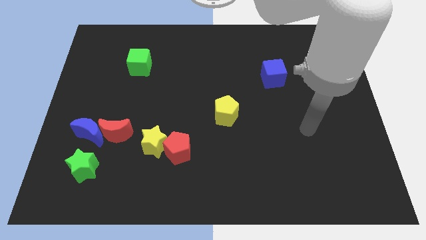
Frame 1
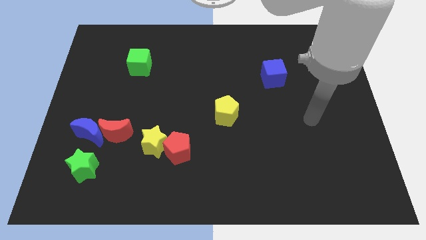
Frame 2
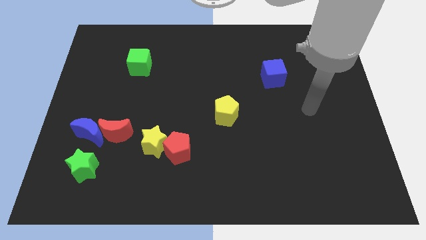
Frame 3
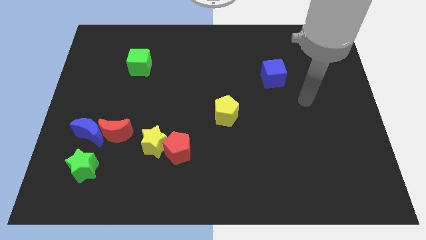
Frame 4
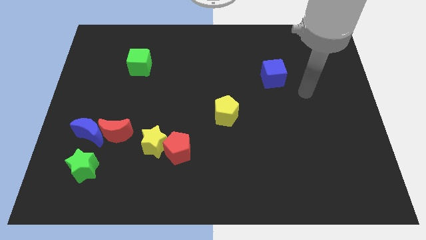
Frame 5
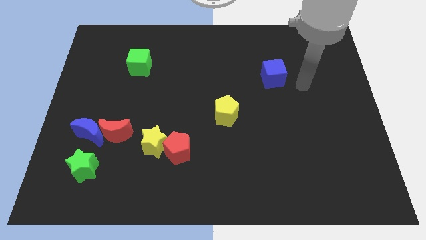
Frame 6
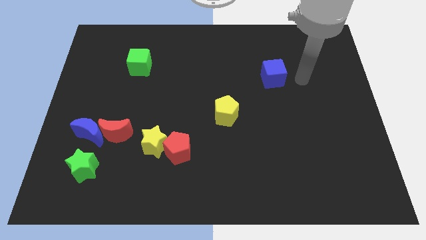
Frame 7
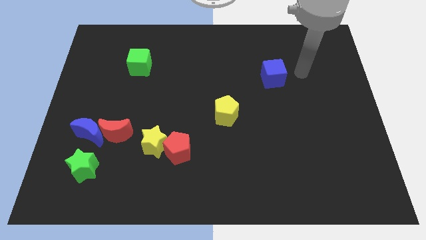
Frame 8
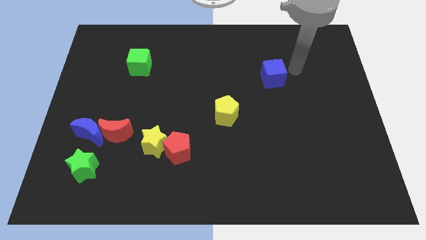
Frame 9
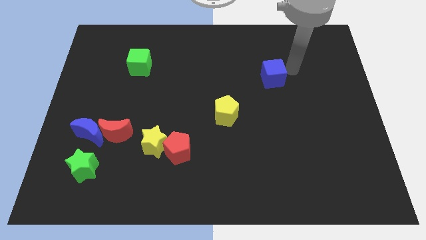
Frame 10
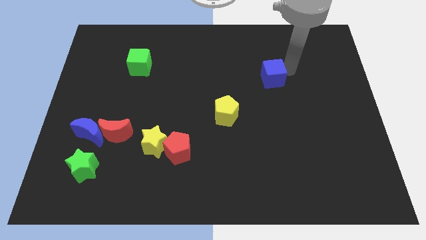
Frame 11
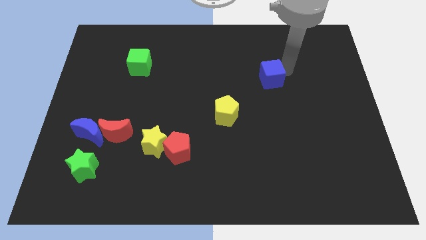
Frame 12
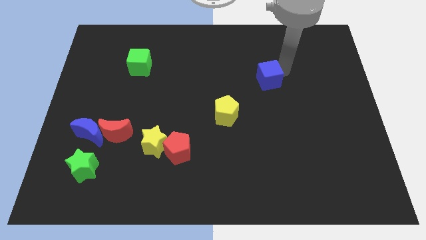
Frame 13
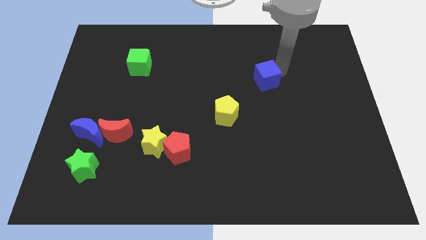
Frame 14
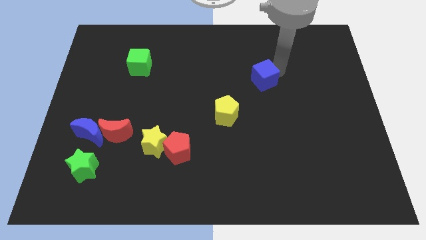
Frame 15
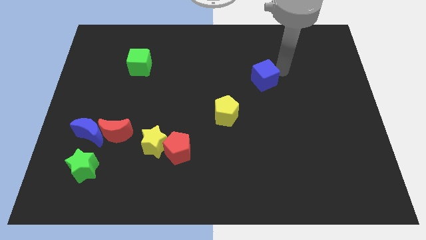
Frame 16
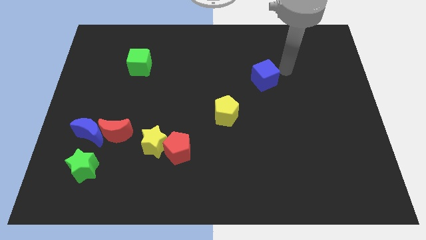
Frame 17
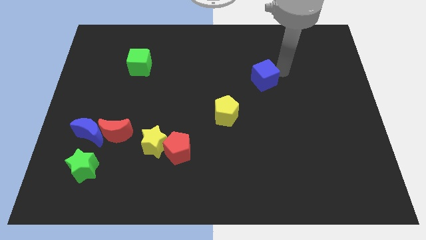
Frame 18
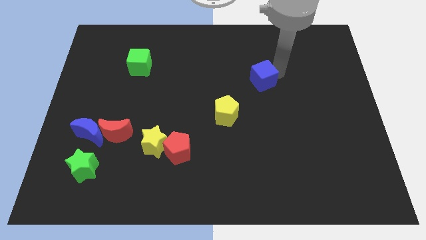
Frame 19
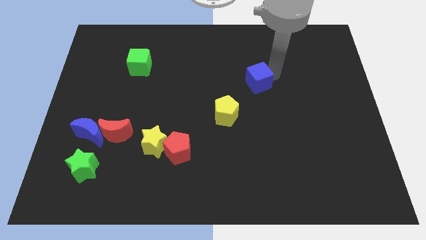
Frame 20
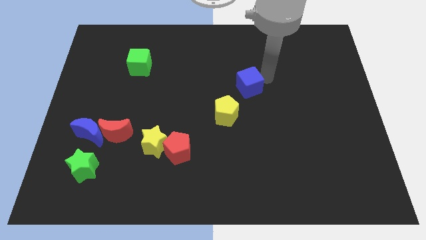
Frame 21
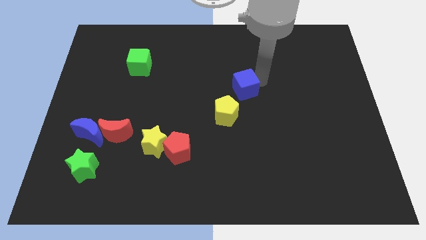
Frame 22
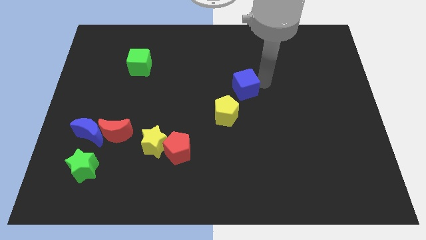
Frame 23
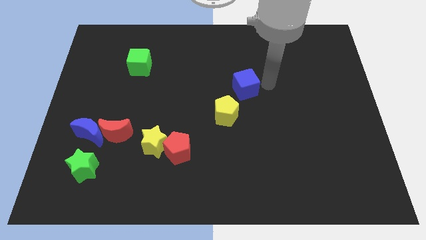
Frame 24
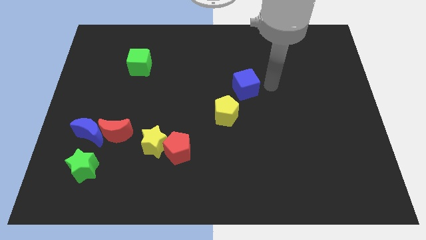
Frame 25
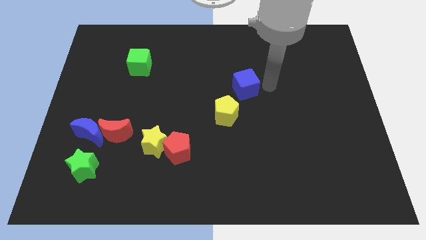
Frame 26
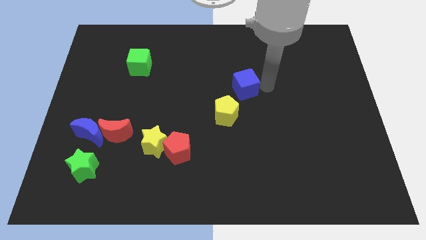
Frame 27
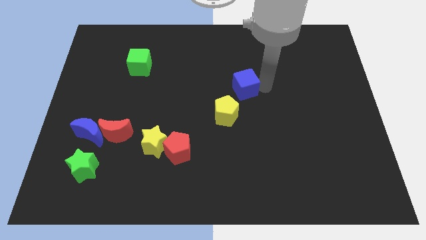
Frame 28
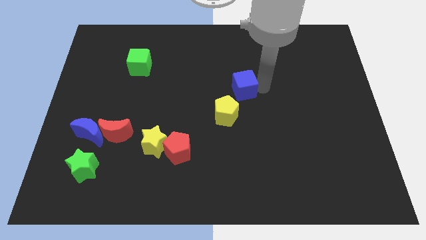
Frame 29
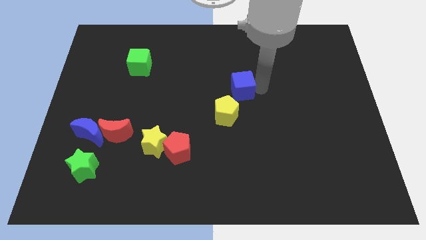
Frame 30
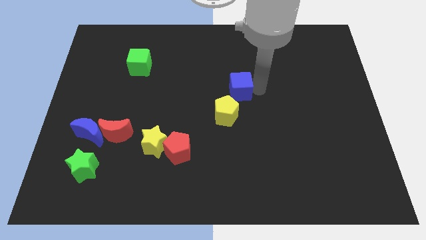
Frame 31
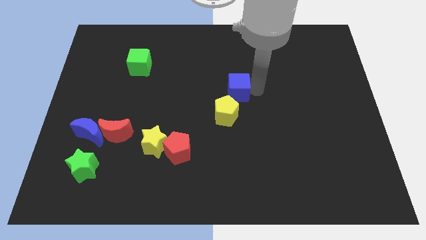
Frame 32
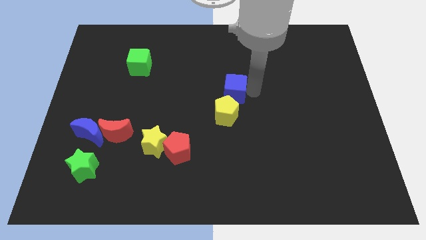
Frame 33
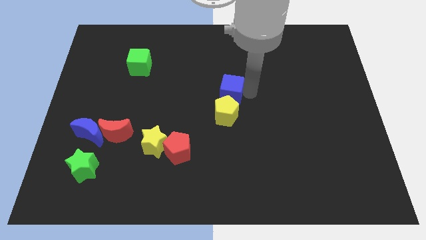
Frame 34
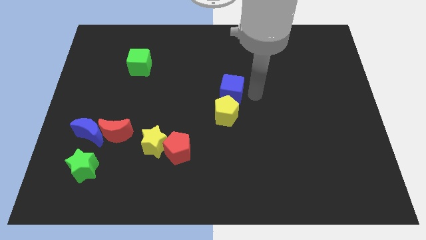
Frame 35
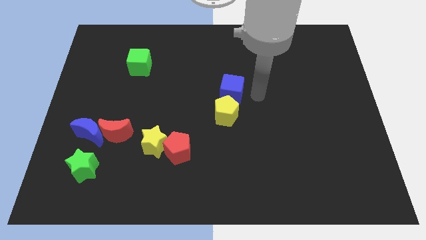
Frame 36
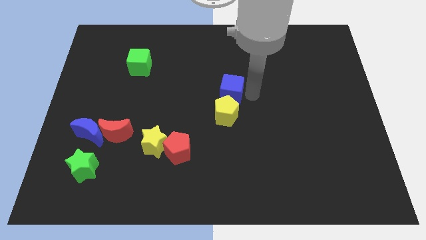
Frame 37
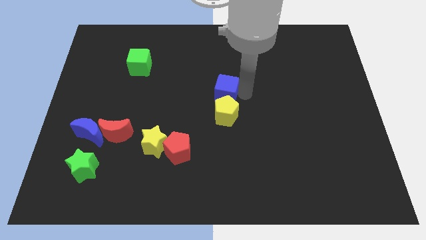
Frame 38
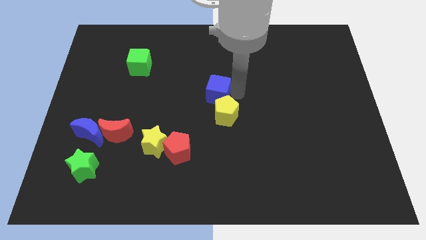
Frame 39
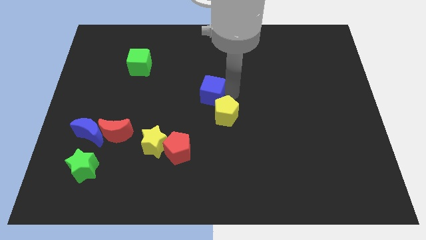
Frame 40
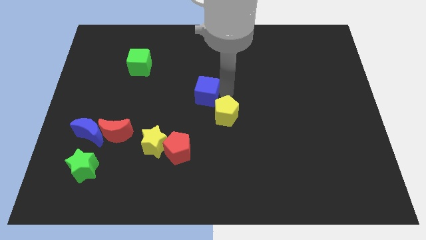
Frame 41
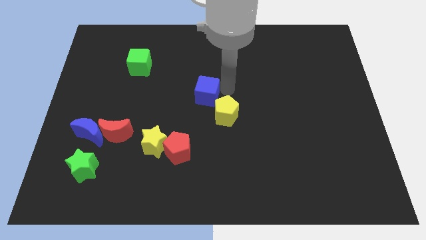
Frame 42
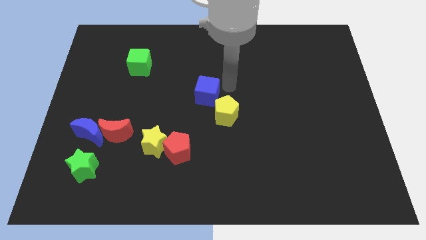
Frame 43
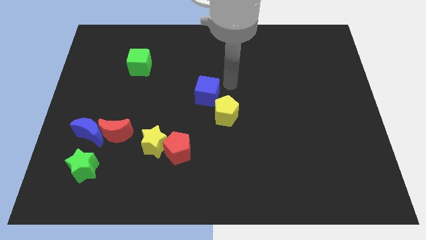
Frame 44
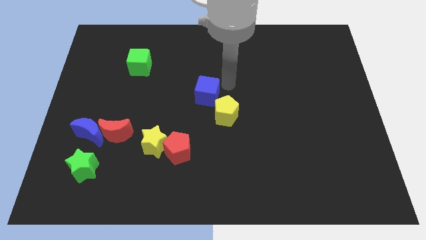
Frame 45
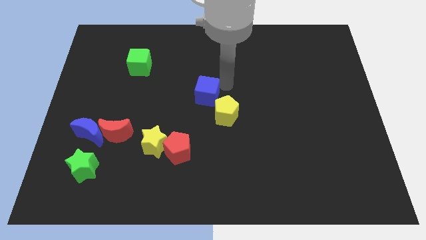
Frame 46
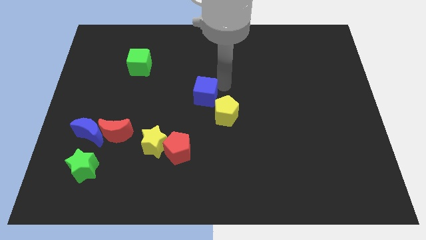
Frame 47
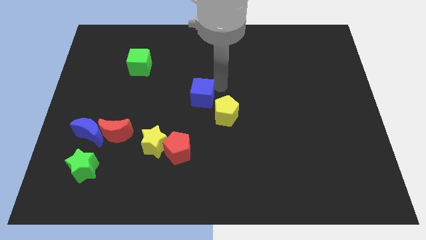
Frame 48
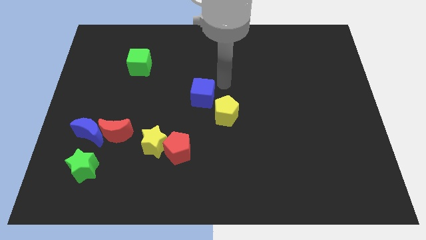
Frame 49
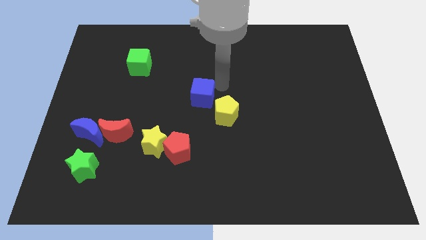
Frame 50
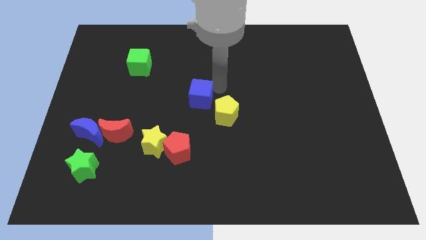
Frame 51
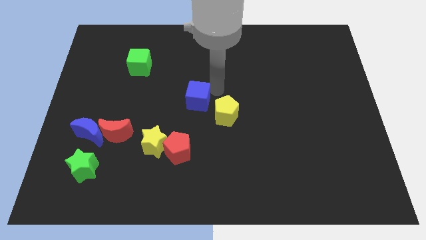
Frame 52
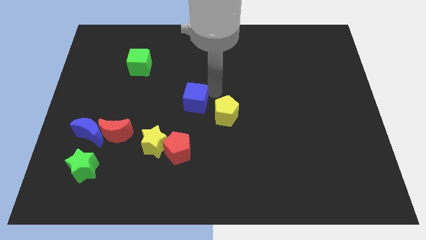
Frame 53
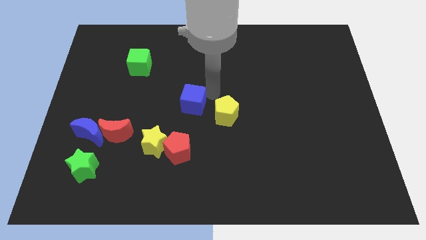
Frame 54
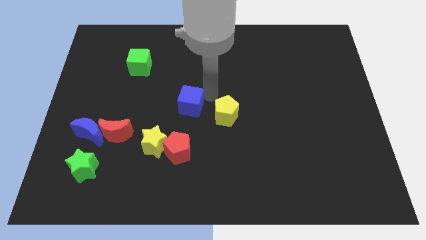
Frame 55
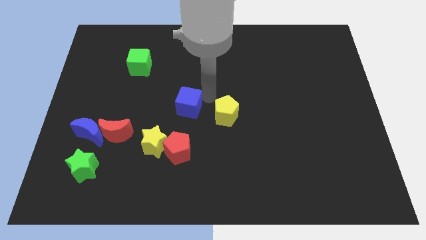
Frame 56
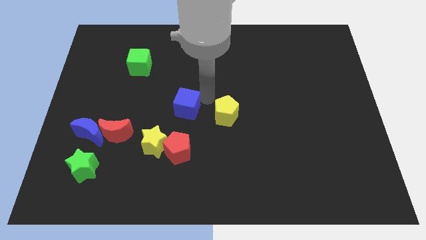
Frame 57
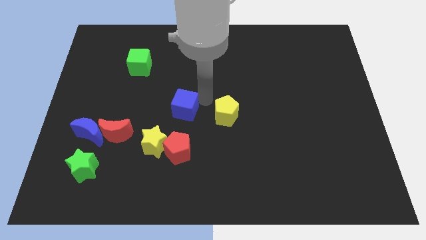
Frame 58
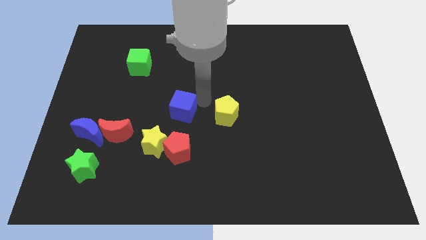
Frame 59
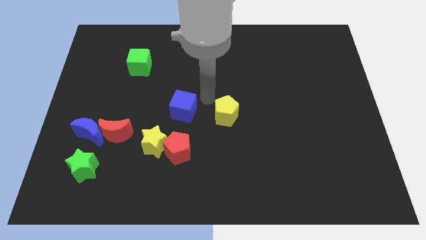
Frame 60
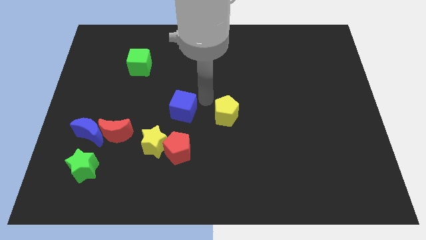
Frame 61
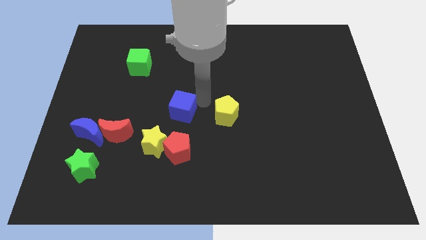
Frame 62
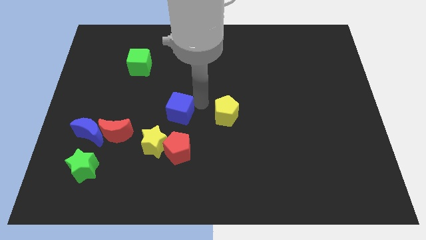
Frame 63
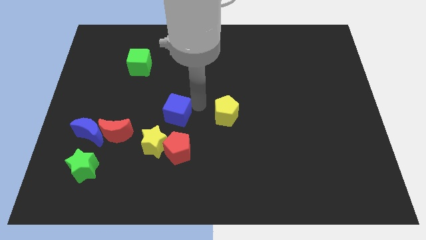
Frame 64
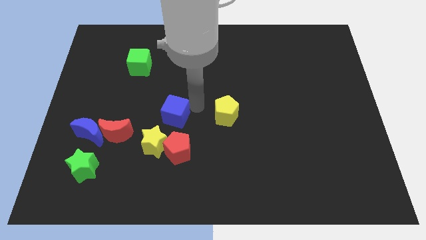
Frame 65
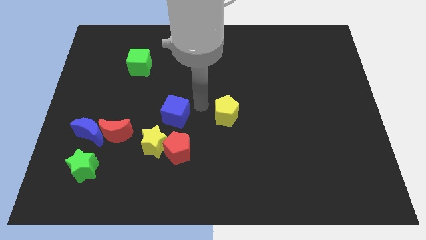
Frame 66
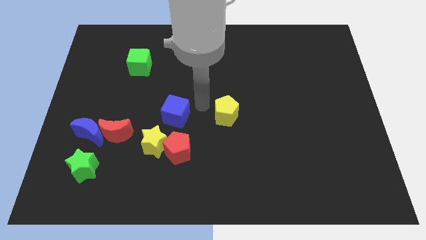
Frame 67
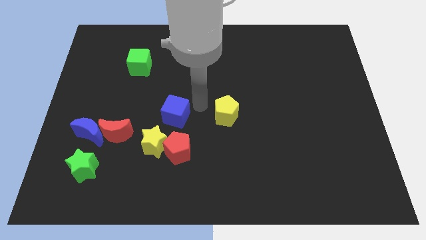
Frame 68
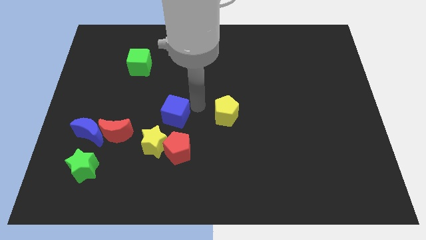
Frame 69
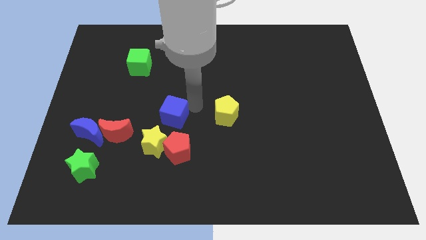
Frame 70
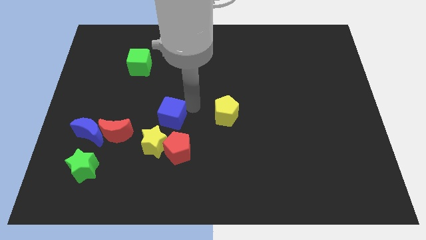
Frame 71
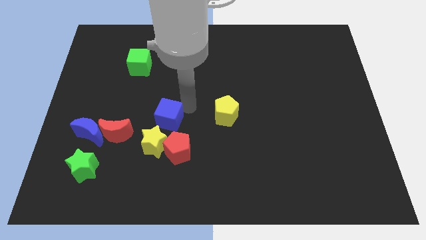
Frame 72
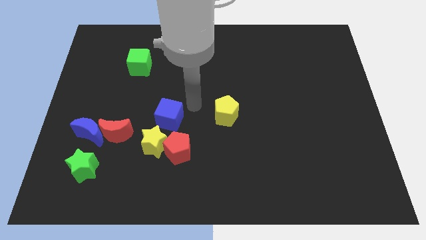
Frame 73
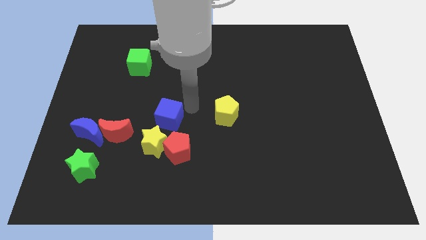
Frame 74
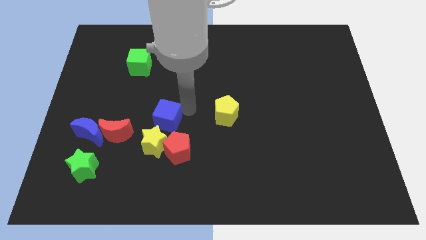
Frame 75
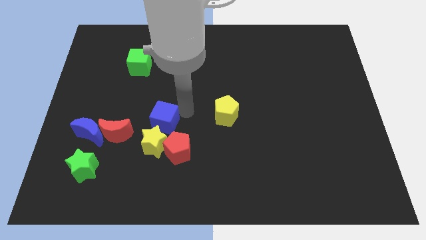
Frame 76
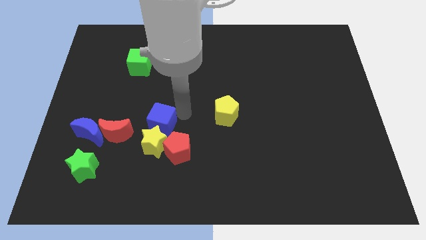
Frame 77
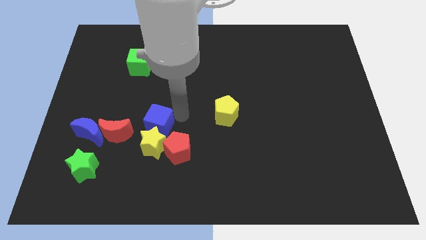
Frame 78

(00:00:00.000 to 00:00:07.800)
put the blue cube to the right of the blue moon
